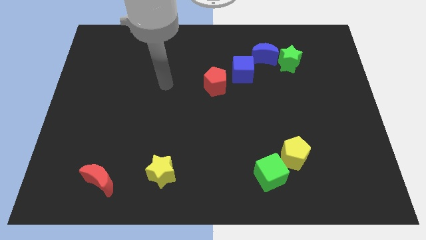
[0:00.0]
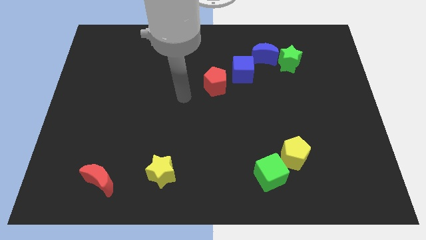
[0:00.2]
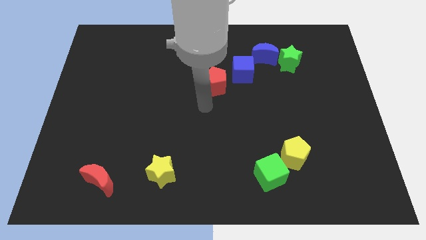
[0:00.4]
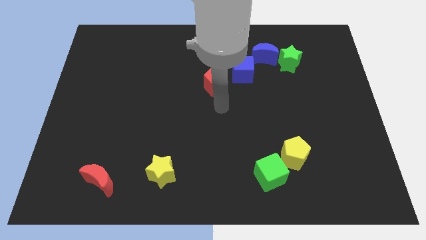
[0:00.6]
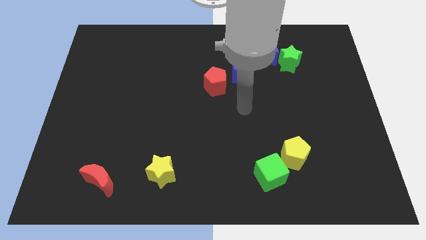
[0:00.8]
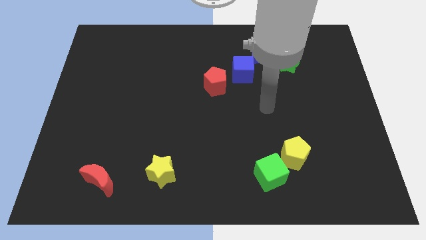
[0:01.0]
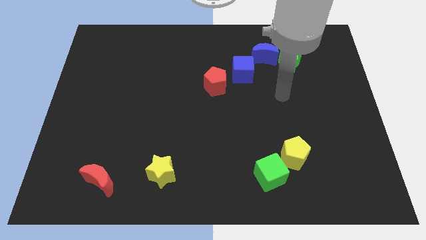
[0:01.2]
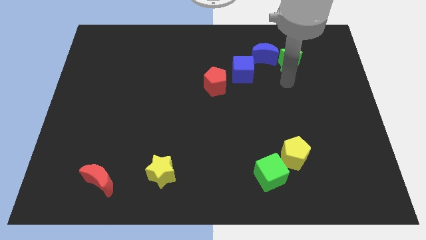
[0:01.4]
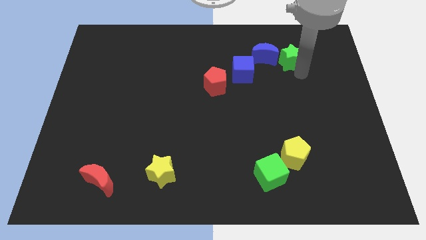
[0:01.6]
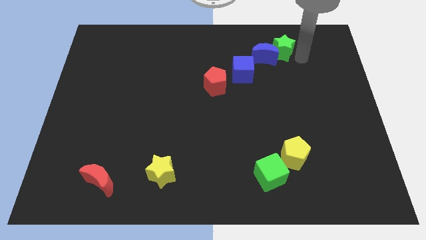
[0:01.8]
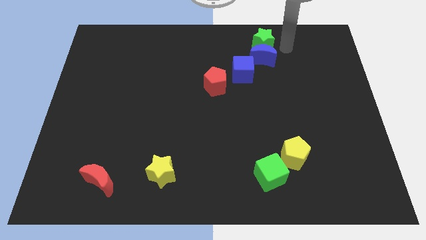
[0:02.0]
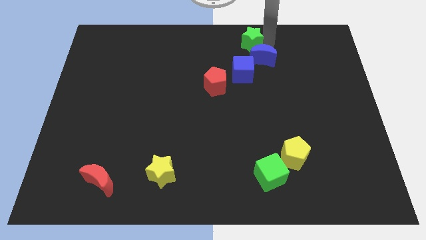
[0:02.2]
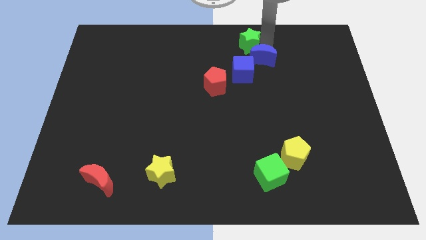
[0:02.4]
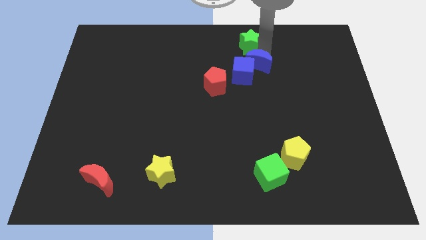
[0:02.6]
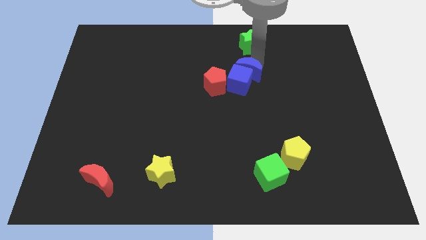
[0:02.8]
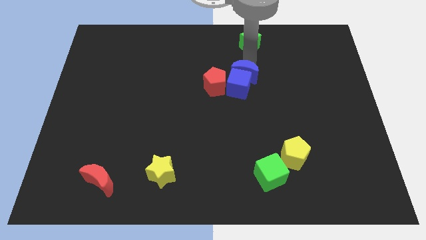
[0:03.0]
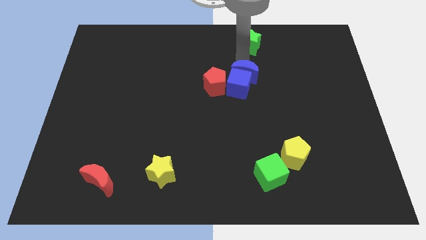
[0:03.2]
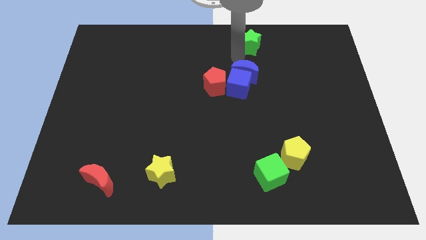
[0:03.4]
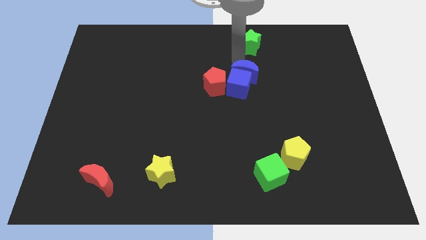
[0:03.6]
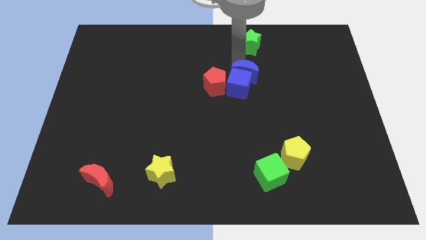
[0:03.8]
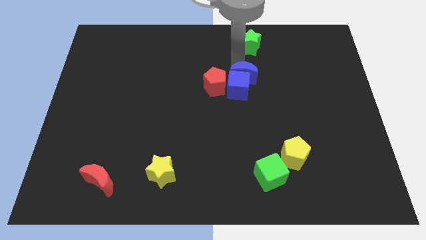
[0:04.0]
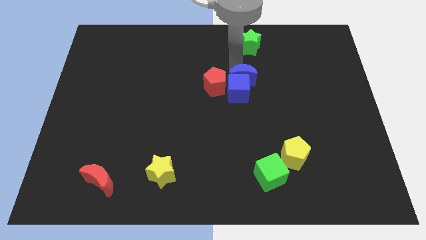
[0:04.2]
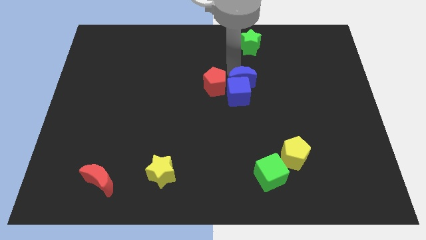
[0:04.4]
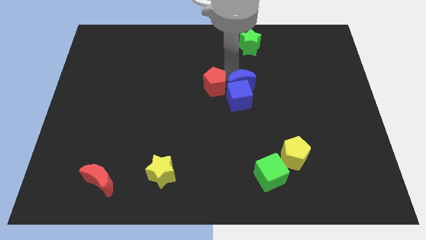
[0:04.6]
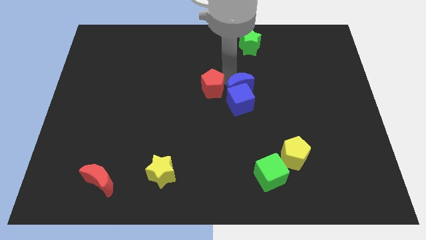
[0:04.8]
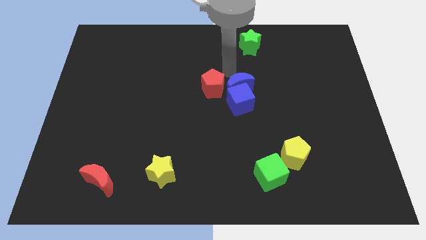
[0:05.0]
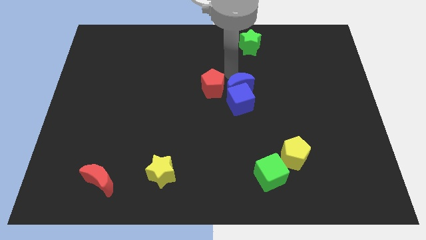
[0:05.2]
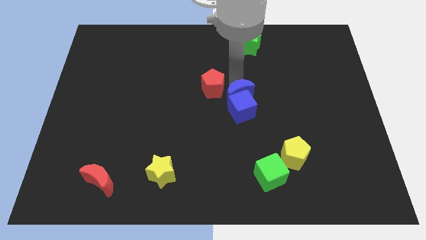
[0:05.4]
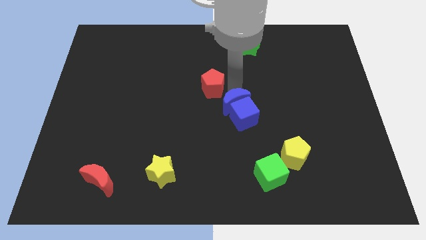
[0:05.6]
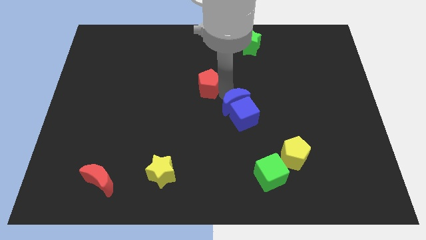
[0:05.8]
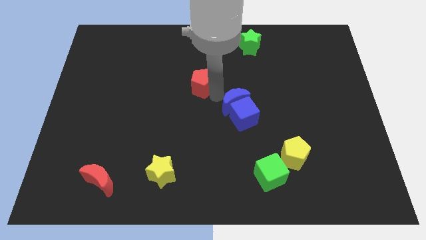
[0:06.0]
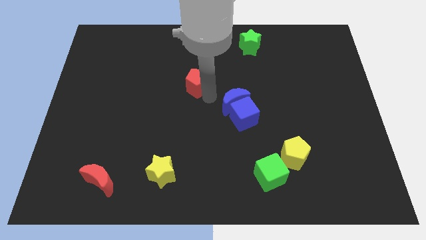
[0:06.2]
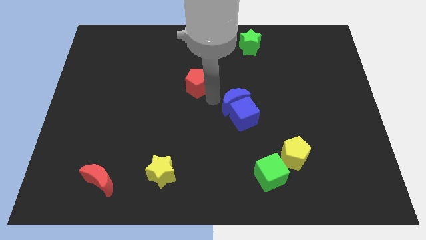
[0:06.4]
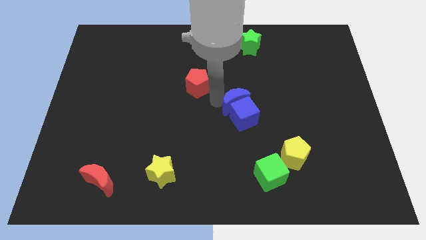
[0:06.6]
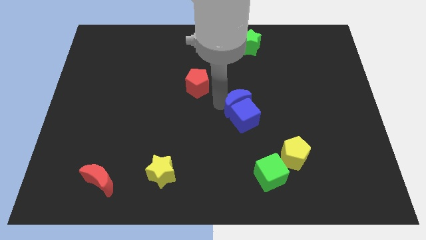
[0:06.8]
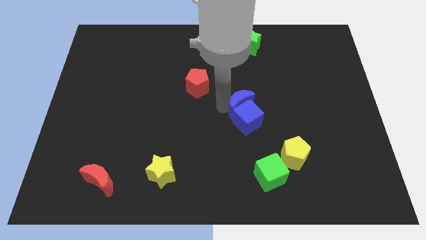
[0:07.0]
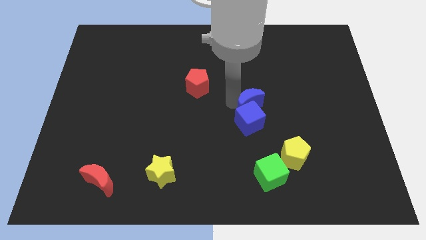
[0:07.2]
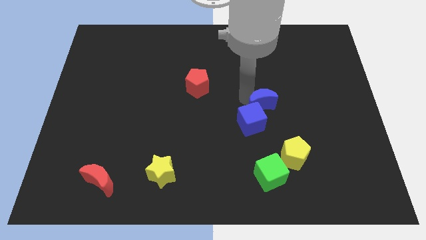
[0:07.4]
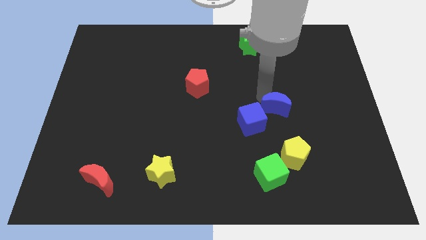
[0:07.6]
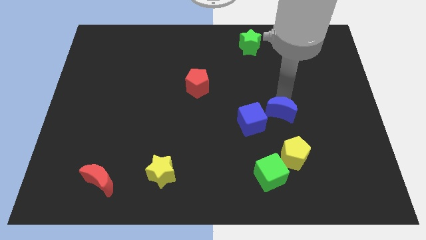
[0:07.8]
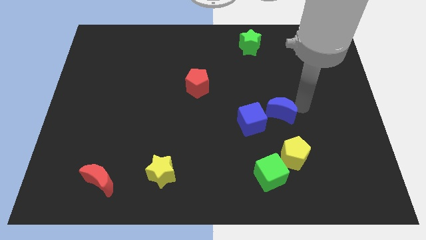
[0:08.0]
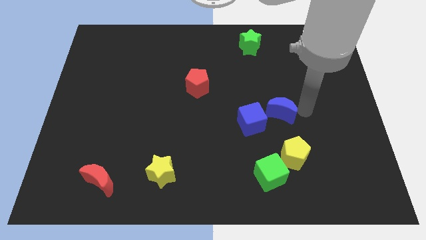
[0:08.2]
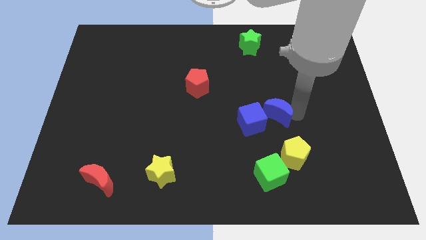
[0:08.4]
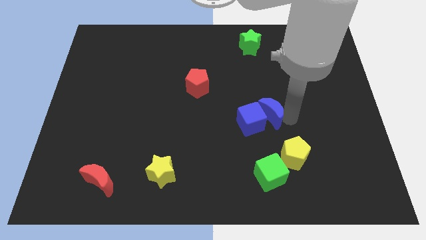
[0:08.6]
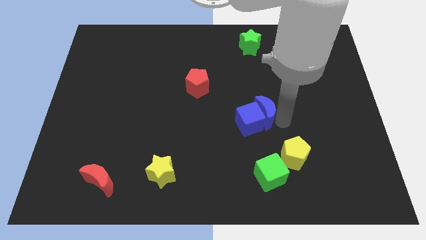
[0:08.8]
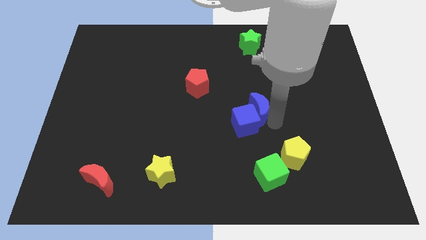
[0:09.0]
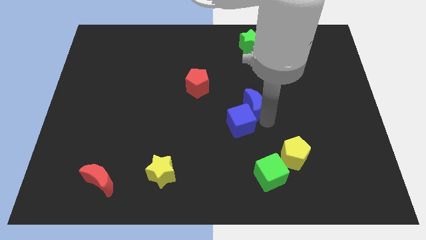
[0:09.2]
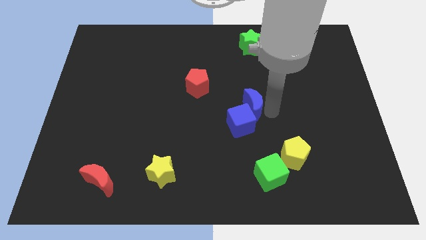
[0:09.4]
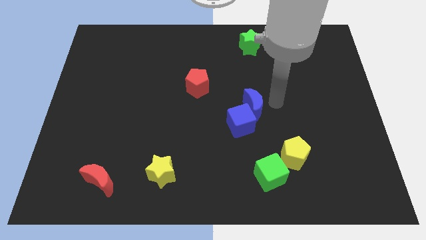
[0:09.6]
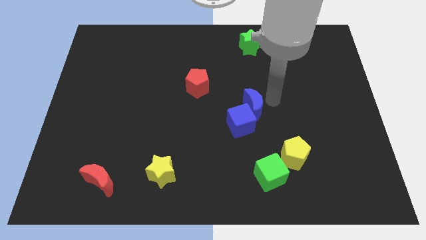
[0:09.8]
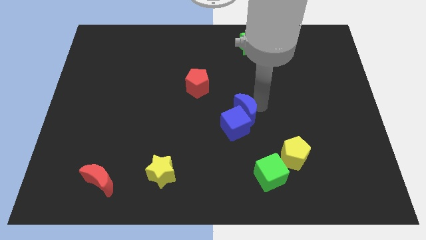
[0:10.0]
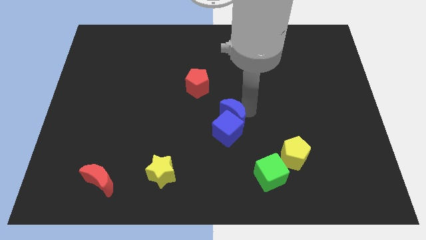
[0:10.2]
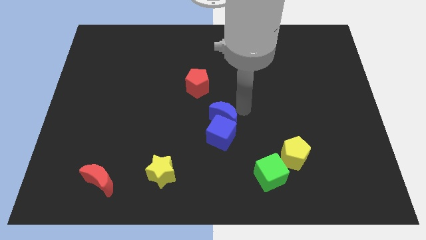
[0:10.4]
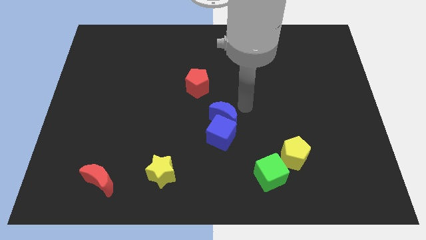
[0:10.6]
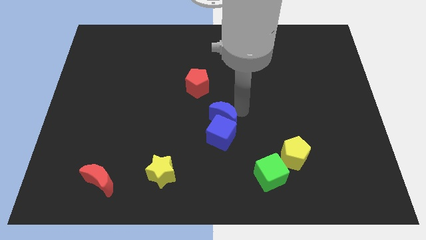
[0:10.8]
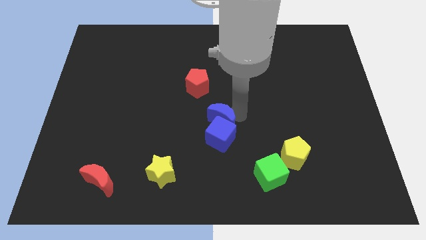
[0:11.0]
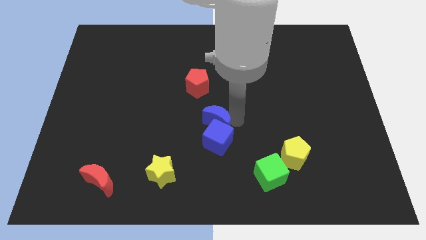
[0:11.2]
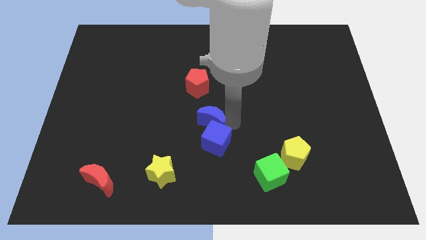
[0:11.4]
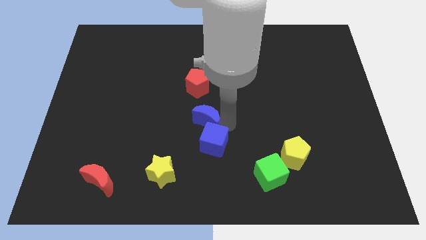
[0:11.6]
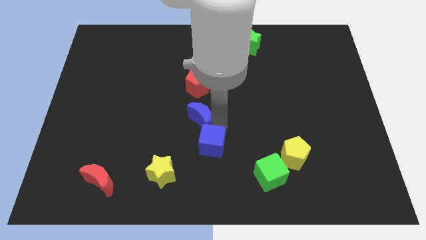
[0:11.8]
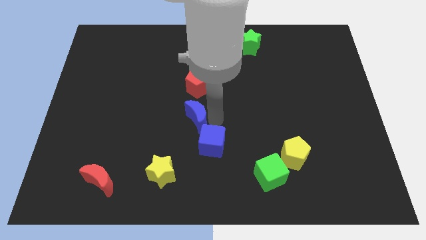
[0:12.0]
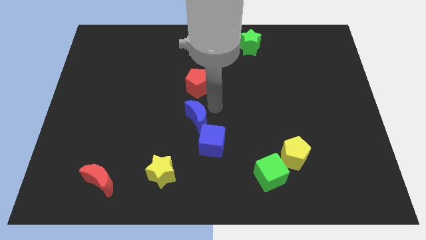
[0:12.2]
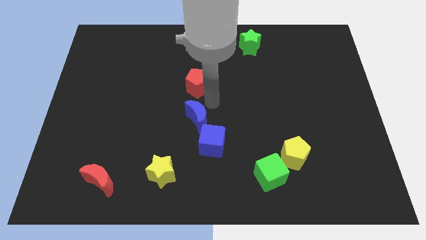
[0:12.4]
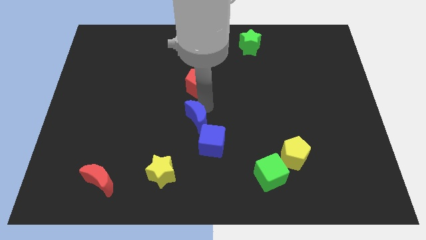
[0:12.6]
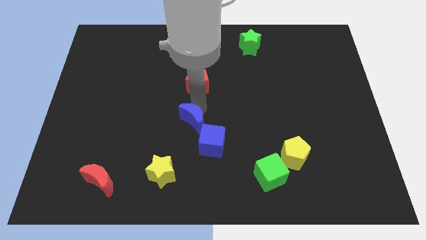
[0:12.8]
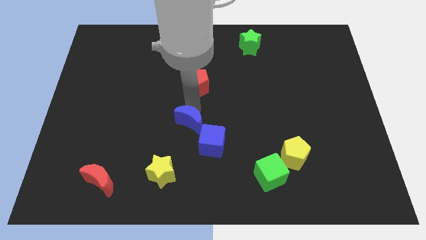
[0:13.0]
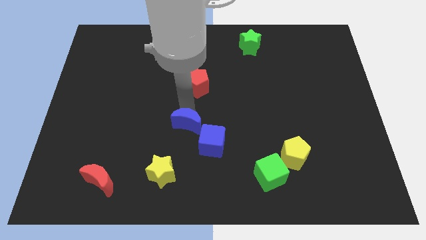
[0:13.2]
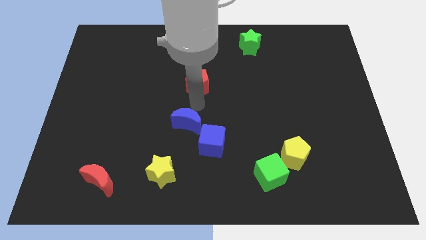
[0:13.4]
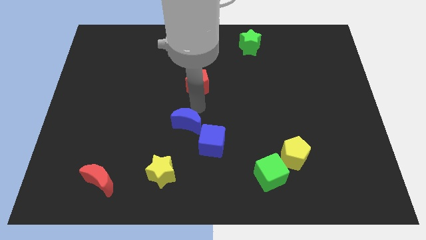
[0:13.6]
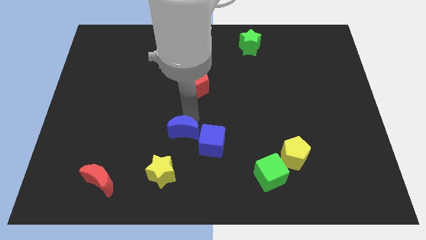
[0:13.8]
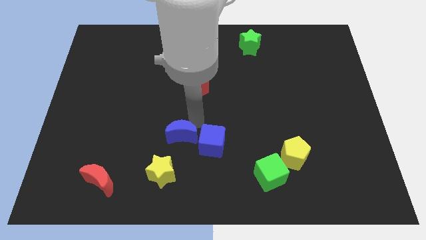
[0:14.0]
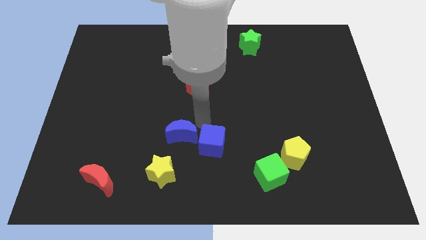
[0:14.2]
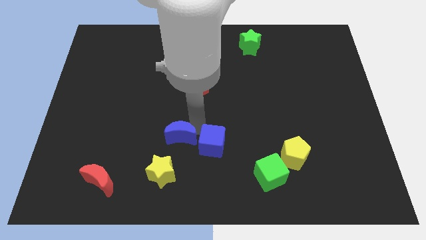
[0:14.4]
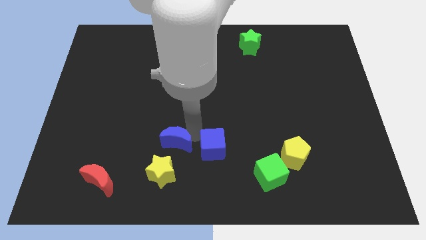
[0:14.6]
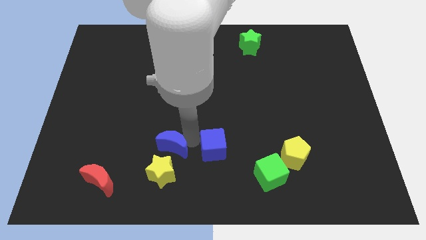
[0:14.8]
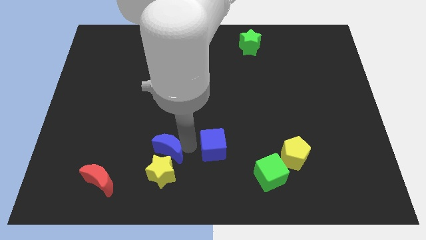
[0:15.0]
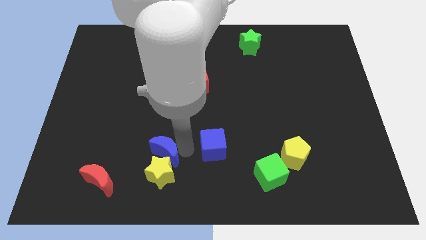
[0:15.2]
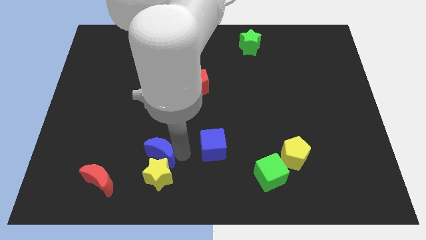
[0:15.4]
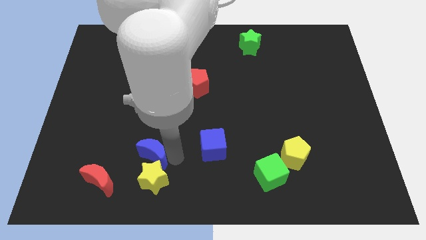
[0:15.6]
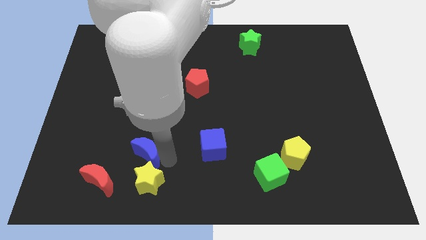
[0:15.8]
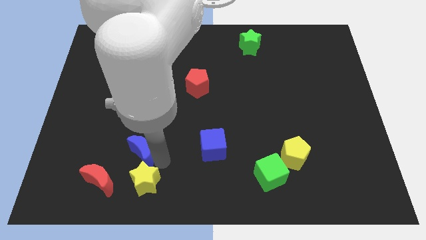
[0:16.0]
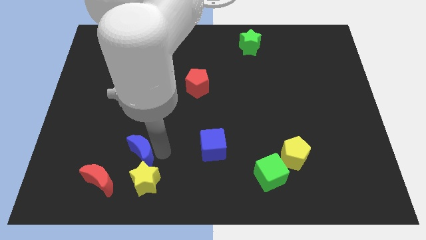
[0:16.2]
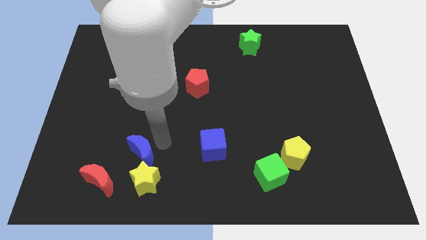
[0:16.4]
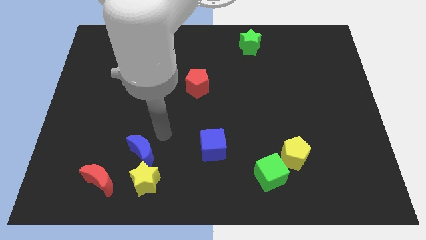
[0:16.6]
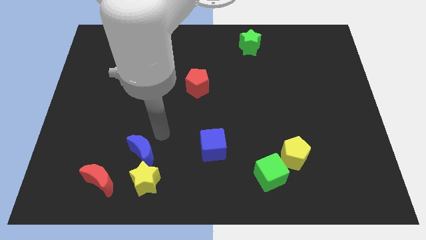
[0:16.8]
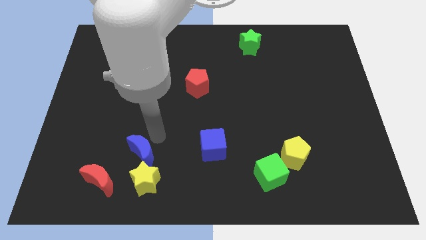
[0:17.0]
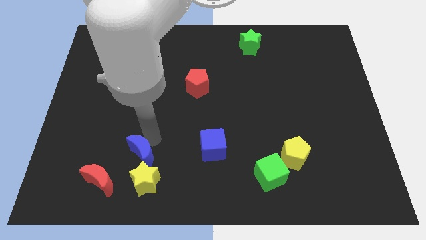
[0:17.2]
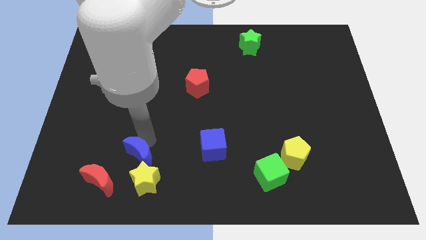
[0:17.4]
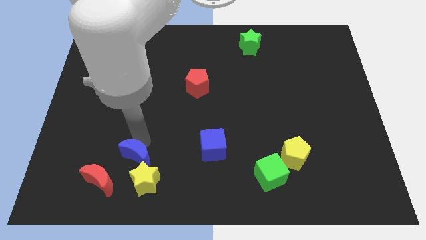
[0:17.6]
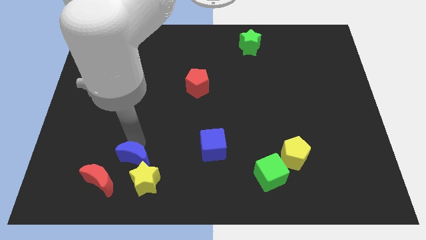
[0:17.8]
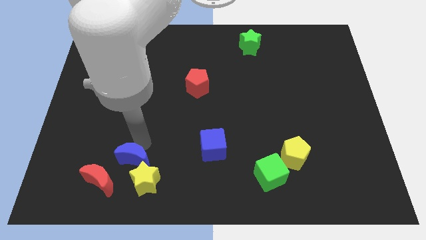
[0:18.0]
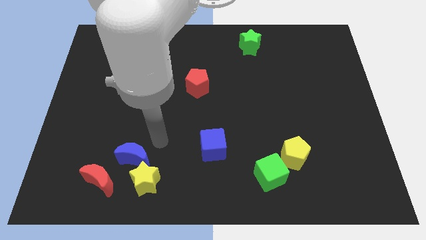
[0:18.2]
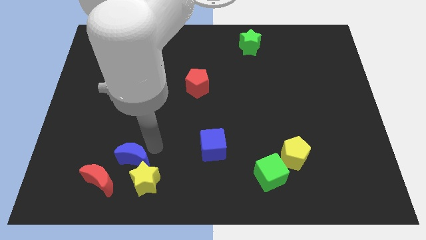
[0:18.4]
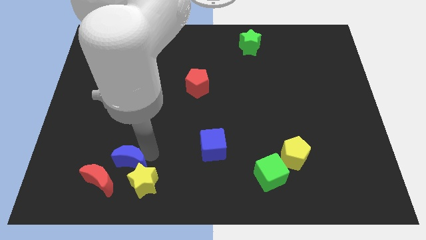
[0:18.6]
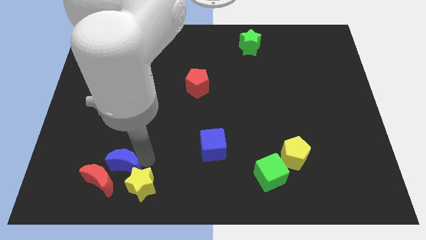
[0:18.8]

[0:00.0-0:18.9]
move the blue moon to the red moon
